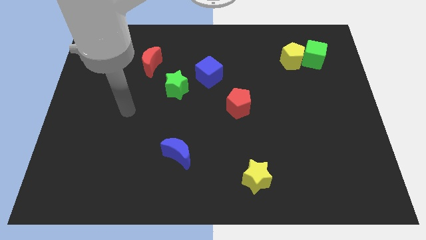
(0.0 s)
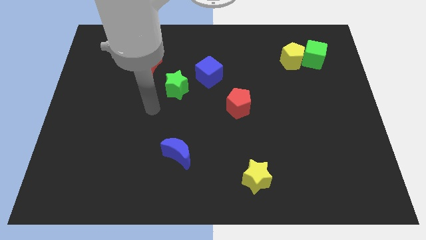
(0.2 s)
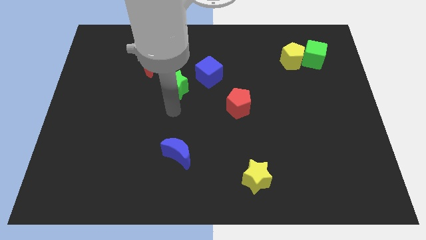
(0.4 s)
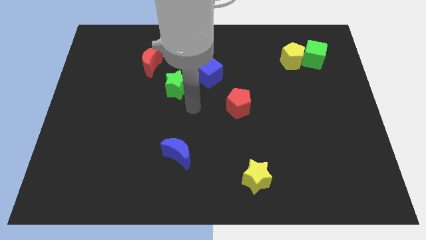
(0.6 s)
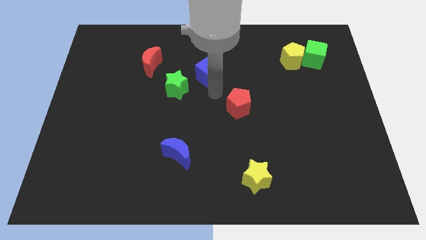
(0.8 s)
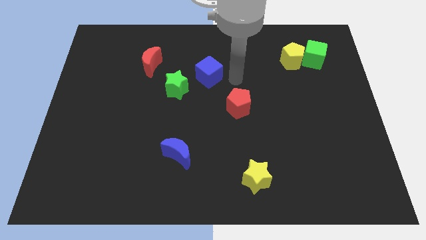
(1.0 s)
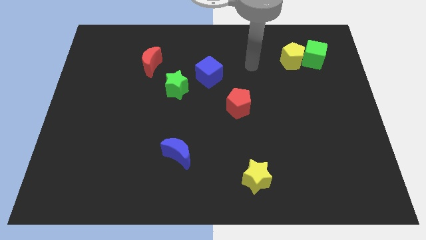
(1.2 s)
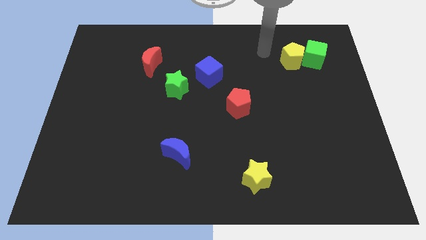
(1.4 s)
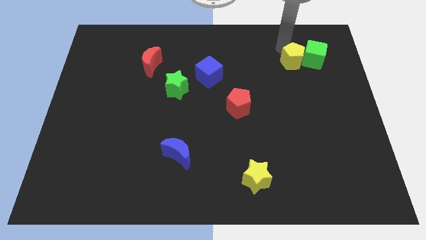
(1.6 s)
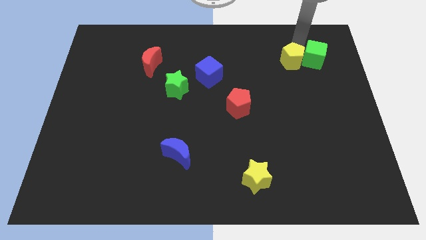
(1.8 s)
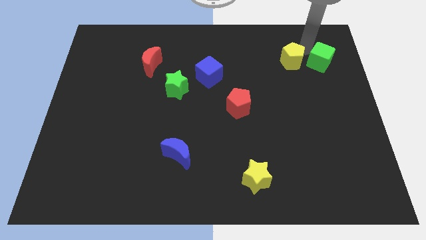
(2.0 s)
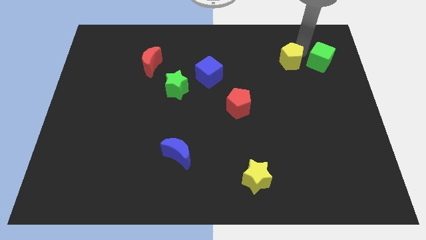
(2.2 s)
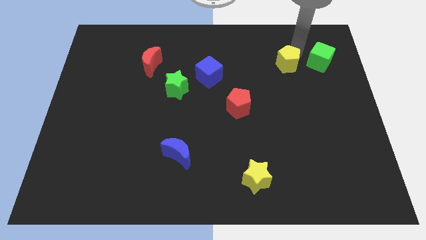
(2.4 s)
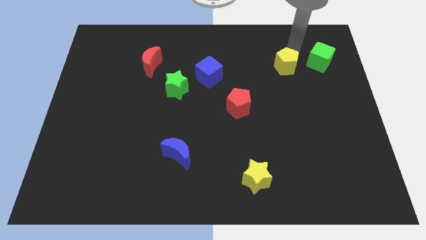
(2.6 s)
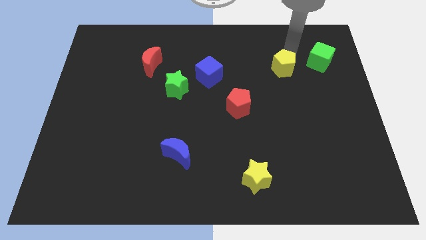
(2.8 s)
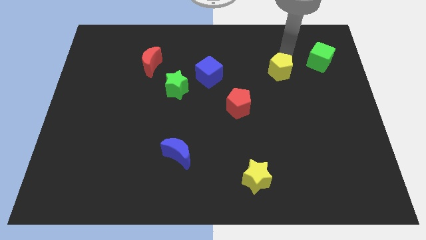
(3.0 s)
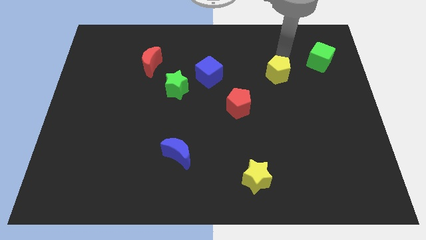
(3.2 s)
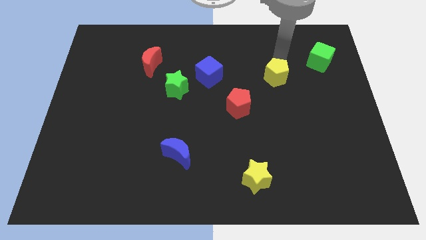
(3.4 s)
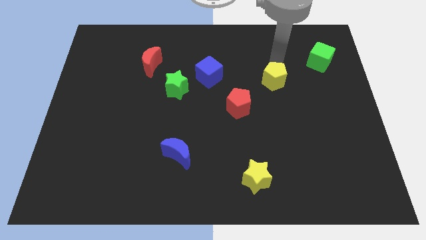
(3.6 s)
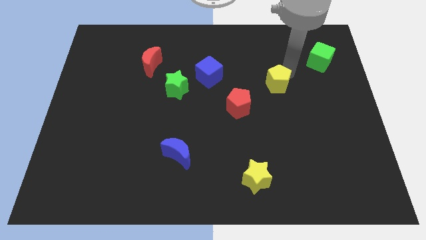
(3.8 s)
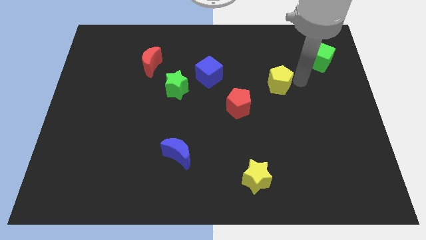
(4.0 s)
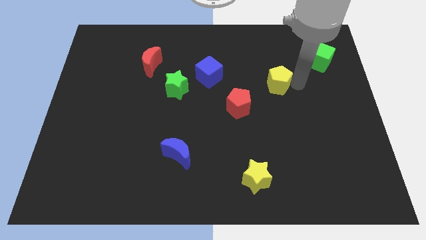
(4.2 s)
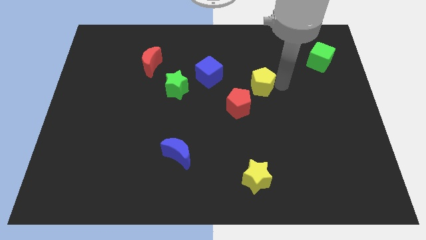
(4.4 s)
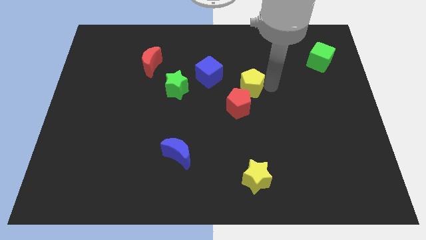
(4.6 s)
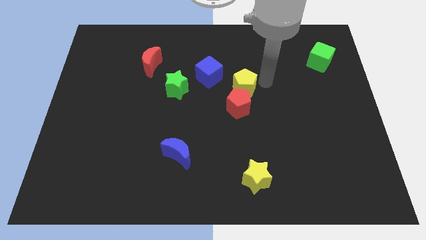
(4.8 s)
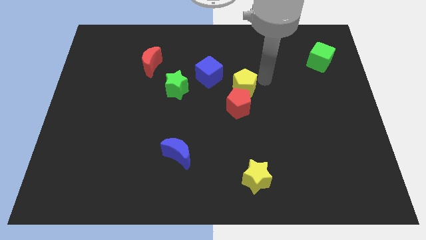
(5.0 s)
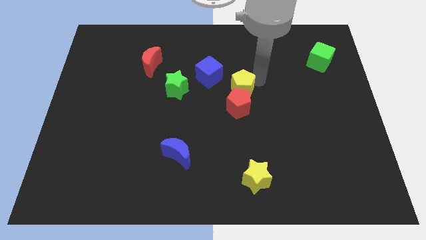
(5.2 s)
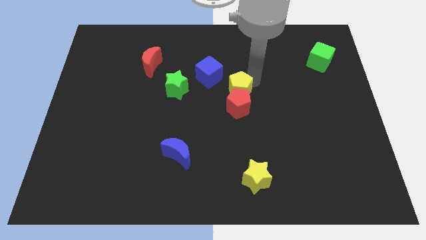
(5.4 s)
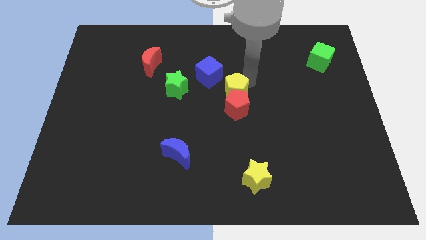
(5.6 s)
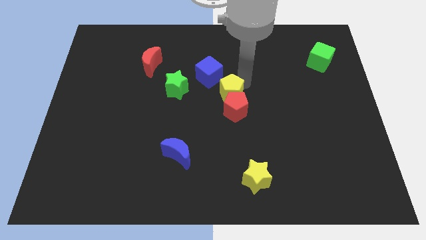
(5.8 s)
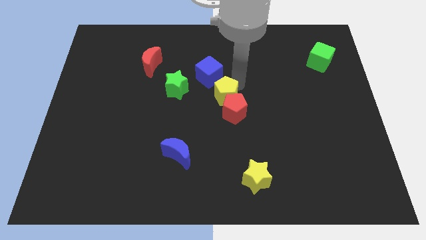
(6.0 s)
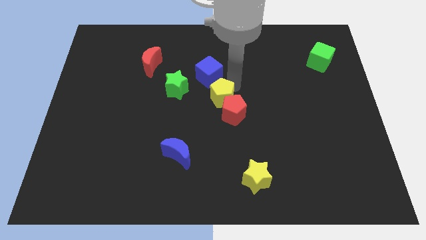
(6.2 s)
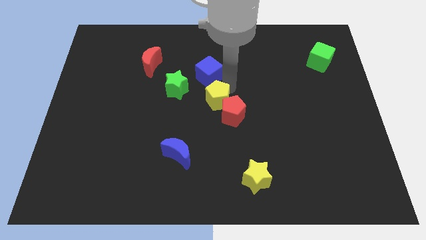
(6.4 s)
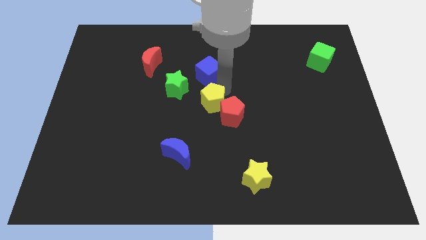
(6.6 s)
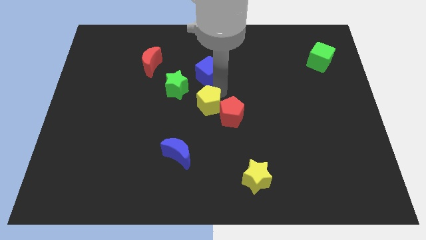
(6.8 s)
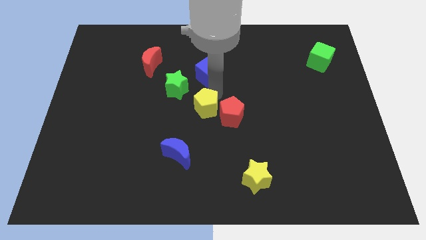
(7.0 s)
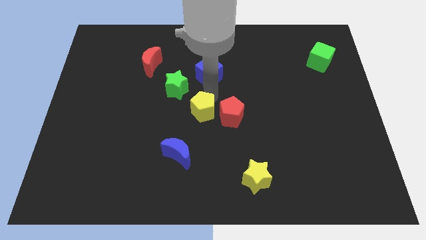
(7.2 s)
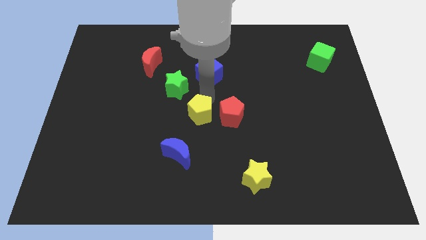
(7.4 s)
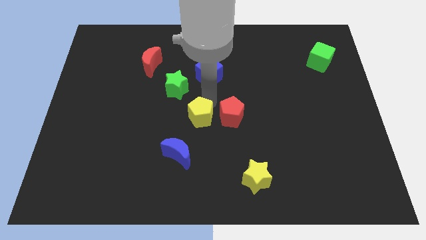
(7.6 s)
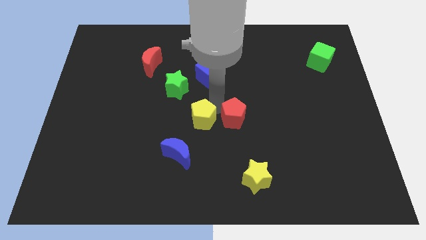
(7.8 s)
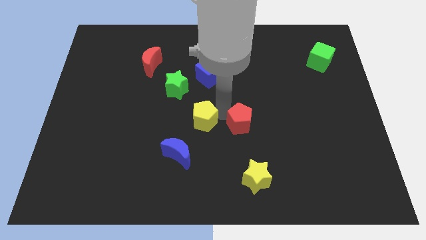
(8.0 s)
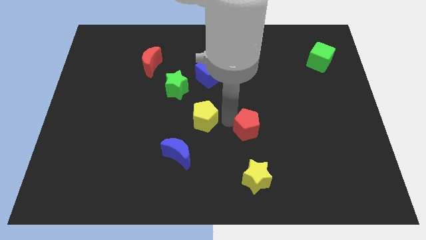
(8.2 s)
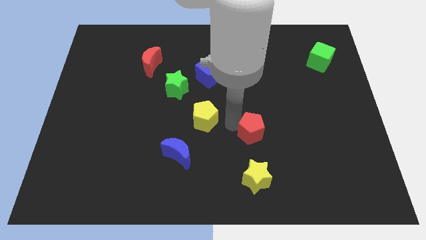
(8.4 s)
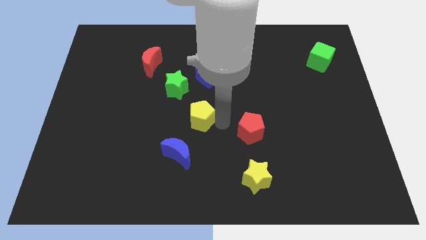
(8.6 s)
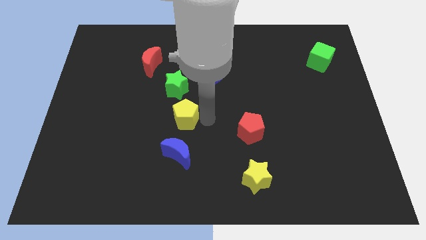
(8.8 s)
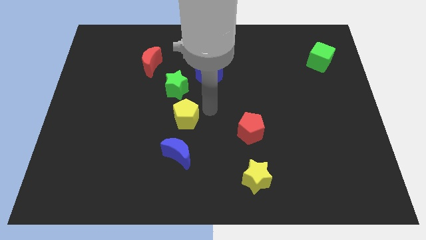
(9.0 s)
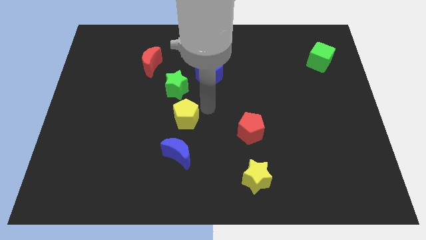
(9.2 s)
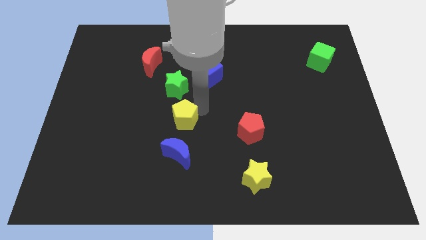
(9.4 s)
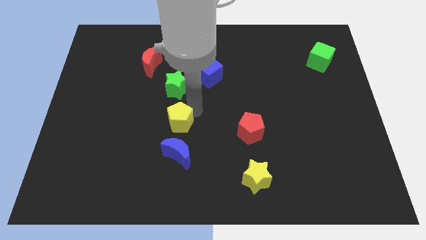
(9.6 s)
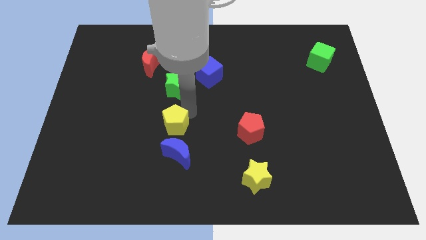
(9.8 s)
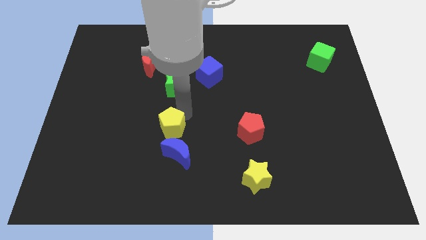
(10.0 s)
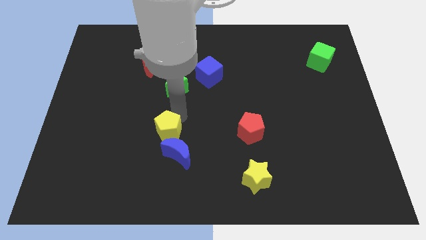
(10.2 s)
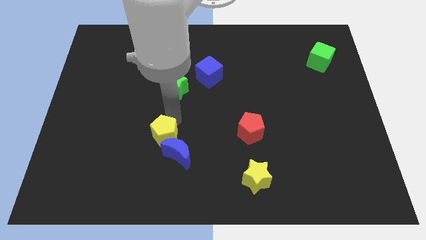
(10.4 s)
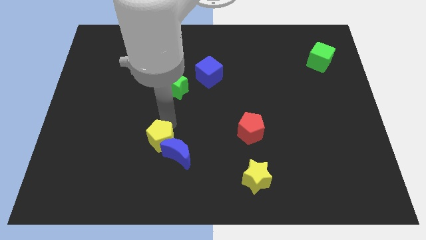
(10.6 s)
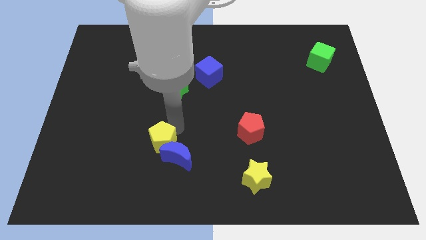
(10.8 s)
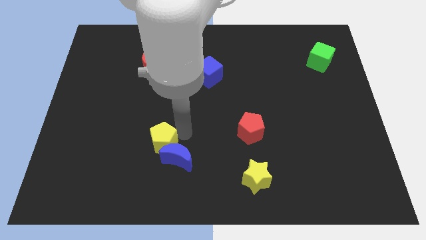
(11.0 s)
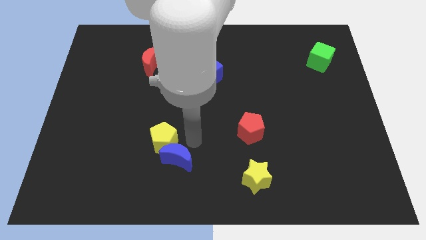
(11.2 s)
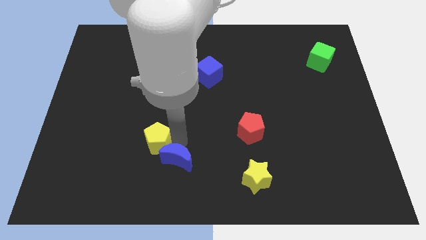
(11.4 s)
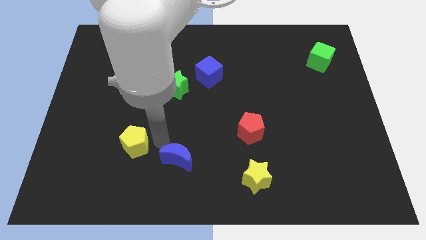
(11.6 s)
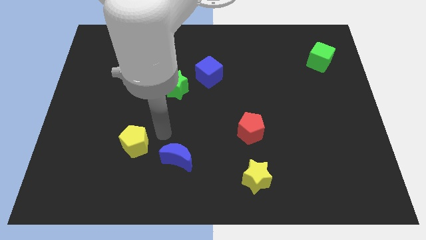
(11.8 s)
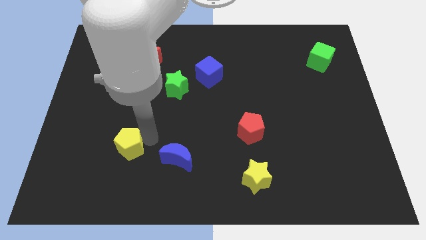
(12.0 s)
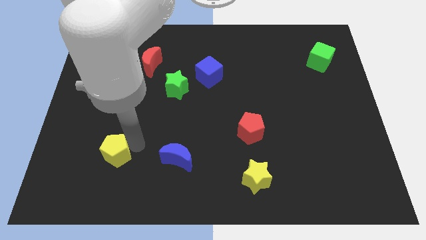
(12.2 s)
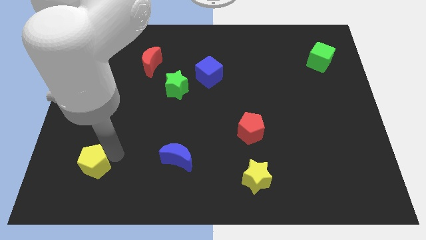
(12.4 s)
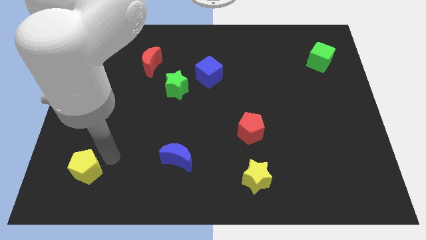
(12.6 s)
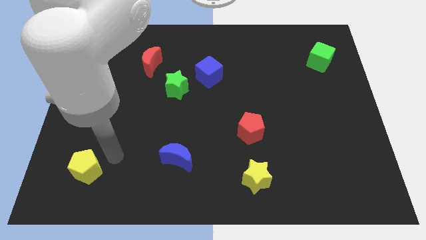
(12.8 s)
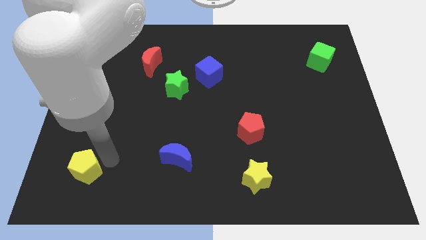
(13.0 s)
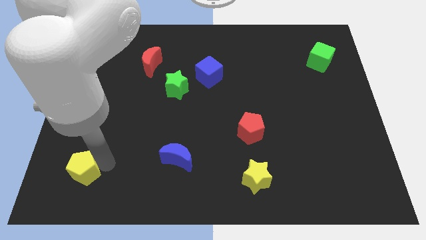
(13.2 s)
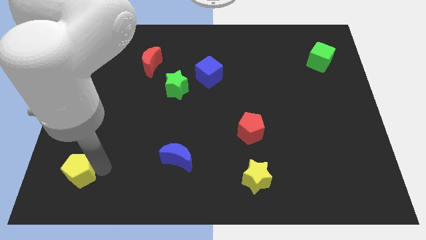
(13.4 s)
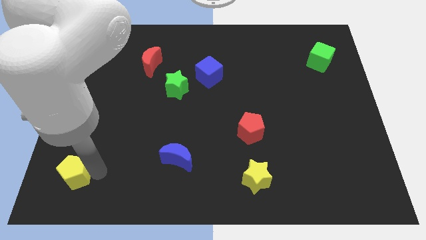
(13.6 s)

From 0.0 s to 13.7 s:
push the yellow pentagon to the lower left corner
